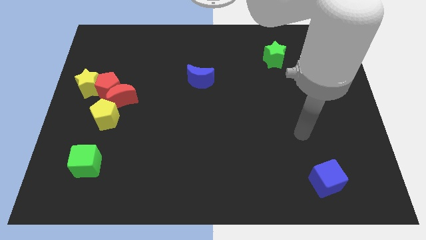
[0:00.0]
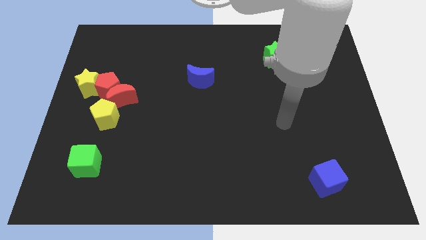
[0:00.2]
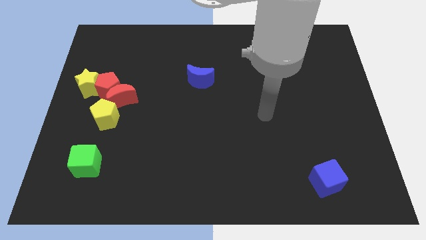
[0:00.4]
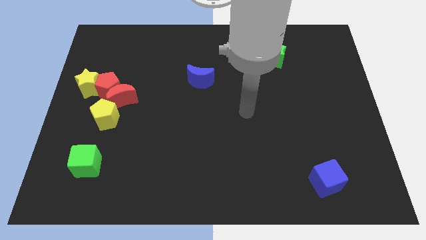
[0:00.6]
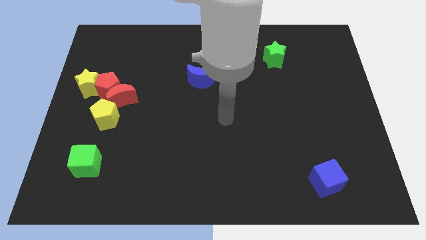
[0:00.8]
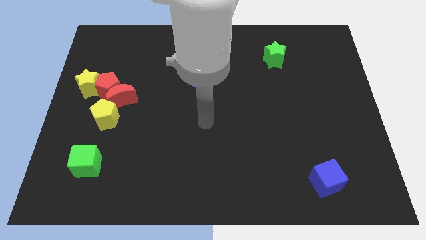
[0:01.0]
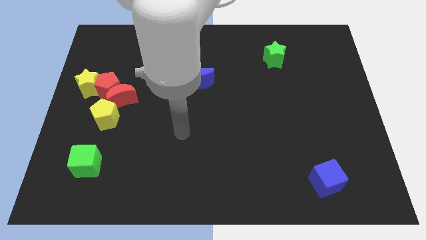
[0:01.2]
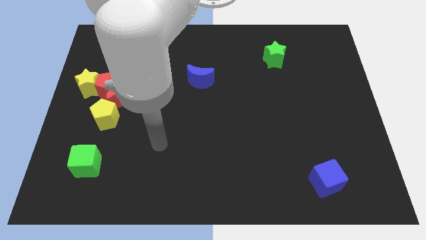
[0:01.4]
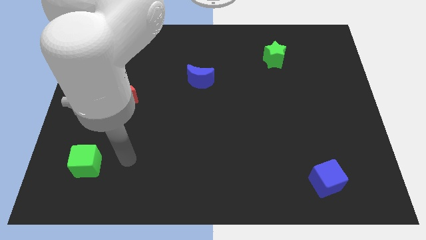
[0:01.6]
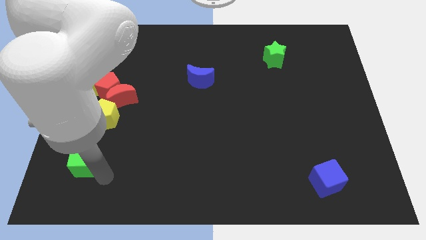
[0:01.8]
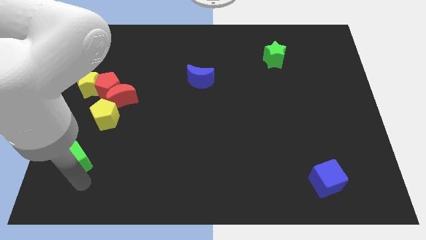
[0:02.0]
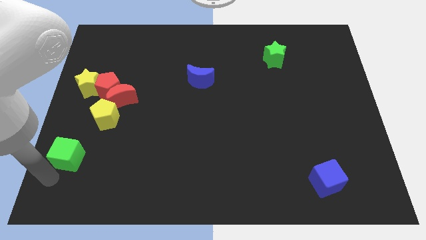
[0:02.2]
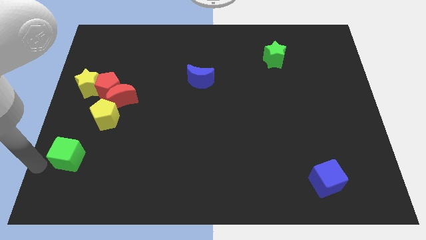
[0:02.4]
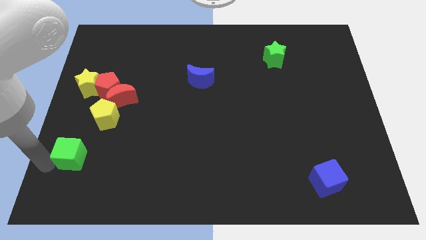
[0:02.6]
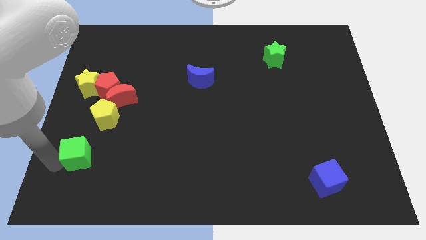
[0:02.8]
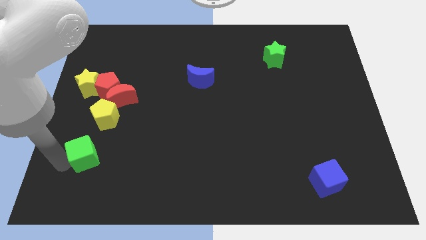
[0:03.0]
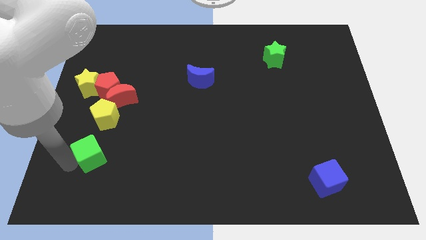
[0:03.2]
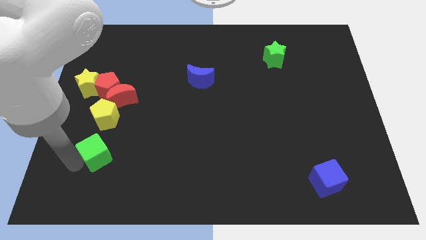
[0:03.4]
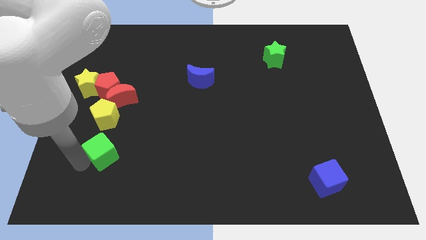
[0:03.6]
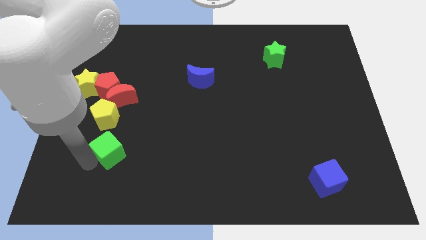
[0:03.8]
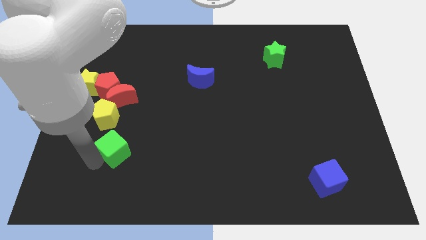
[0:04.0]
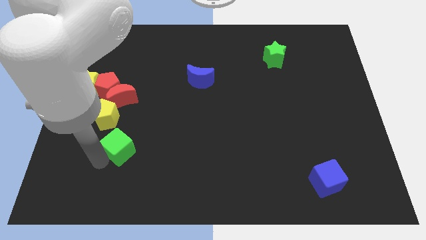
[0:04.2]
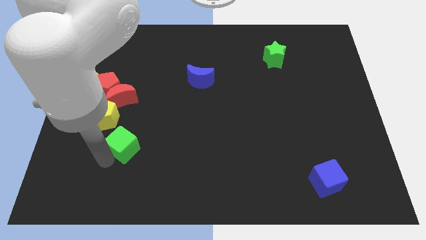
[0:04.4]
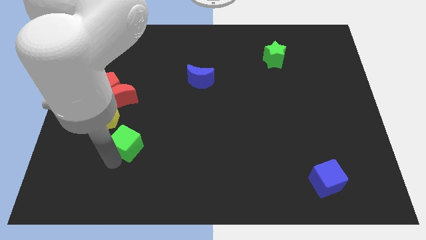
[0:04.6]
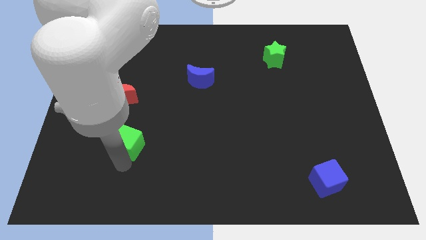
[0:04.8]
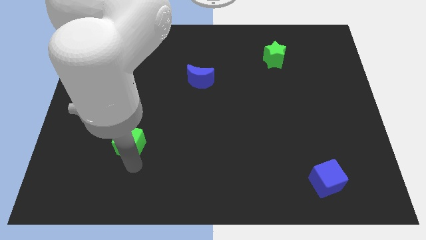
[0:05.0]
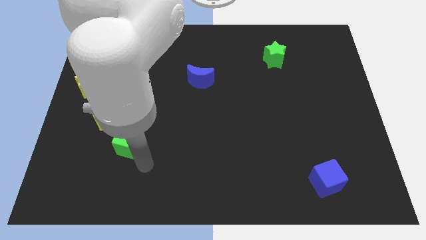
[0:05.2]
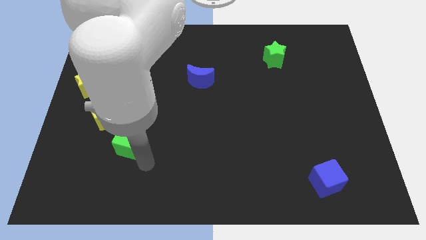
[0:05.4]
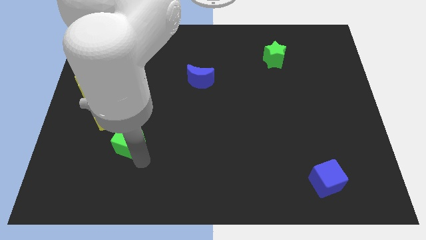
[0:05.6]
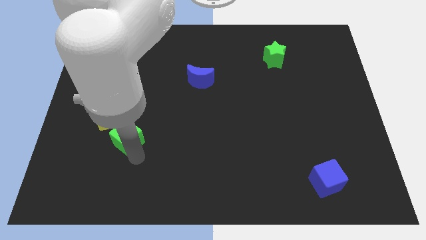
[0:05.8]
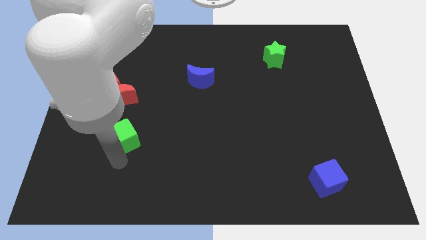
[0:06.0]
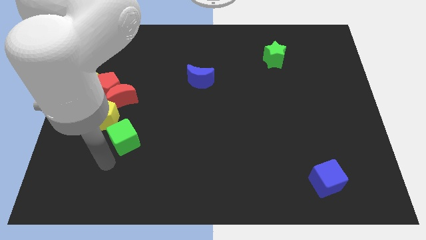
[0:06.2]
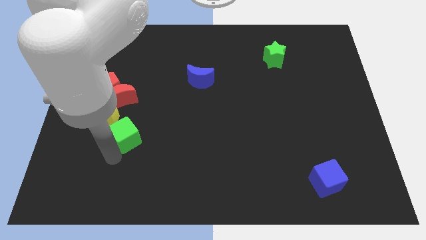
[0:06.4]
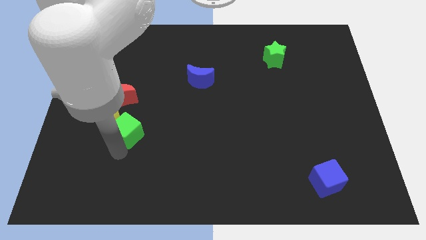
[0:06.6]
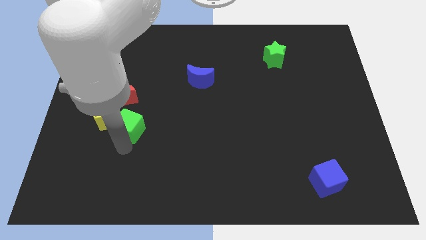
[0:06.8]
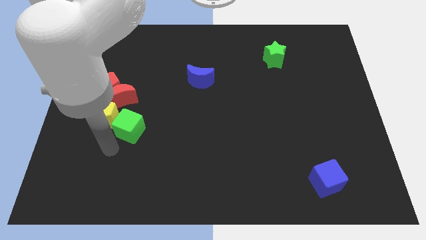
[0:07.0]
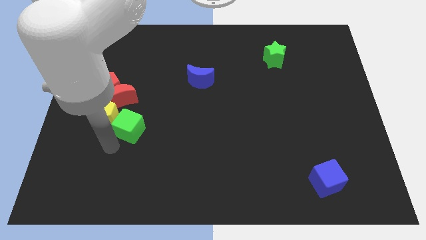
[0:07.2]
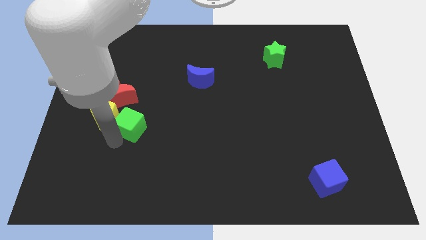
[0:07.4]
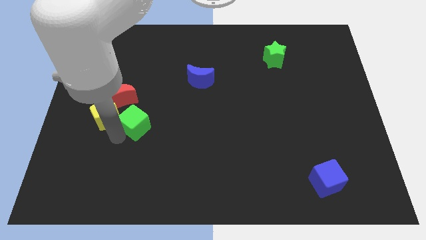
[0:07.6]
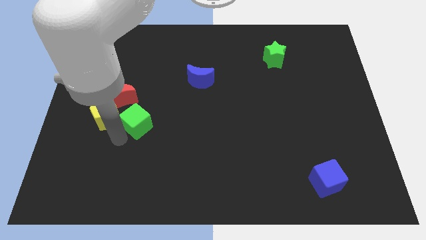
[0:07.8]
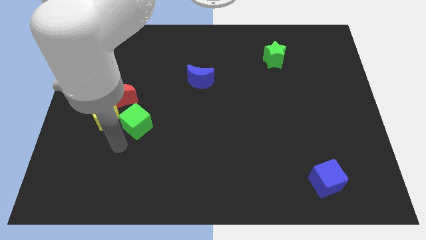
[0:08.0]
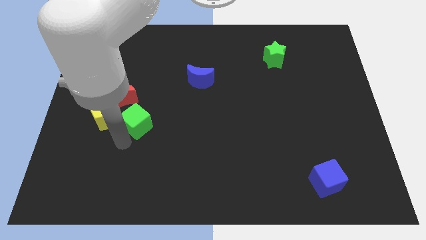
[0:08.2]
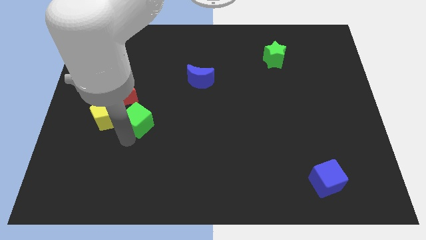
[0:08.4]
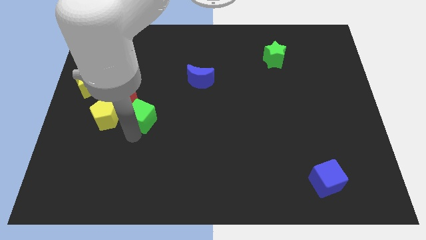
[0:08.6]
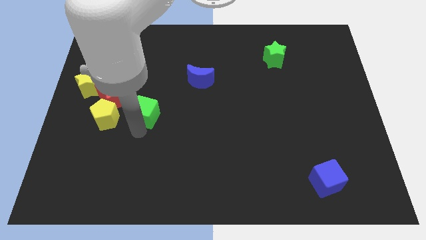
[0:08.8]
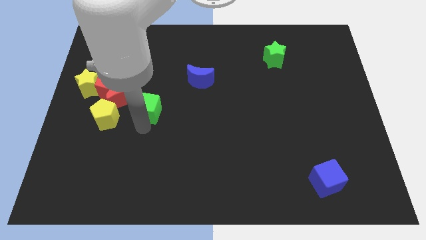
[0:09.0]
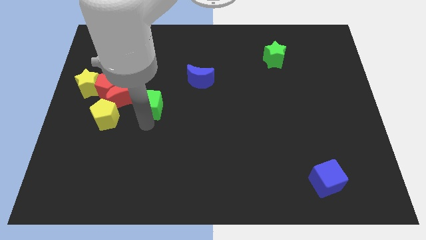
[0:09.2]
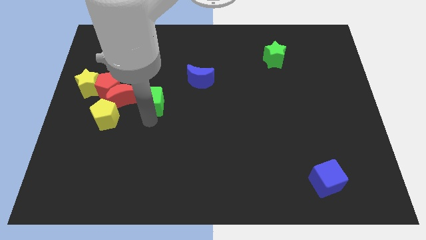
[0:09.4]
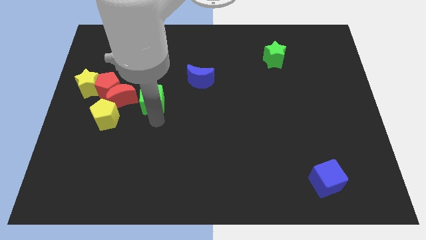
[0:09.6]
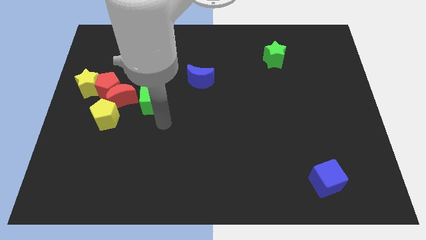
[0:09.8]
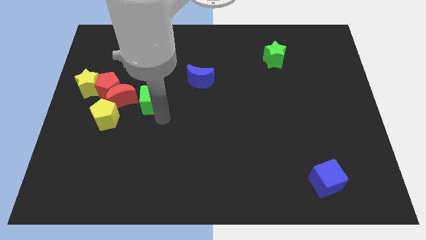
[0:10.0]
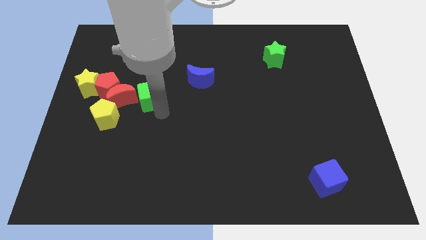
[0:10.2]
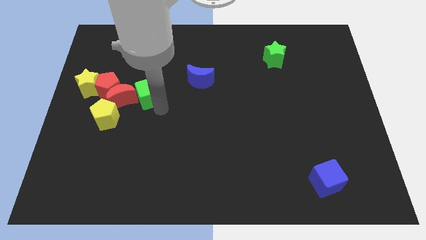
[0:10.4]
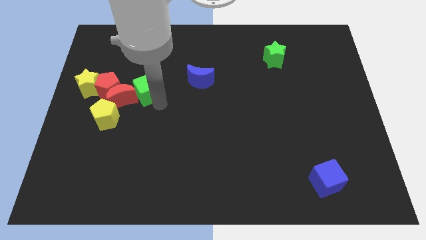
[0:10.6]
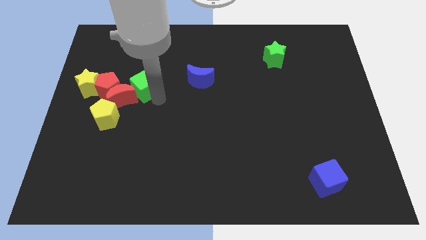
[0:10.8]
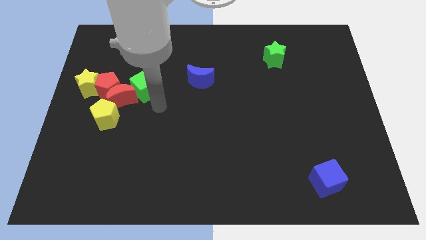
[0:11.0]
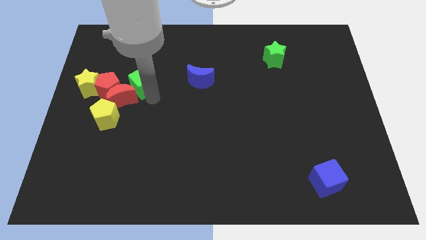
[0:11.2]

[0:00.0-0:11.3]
move the green cube to the top right side of the red pentagon

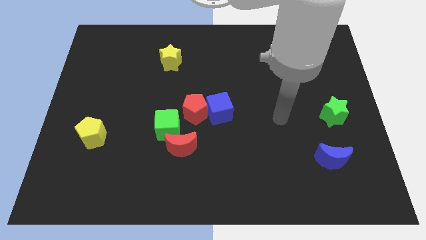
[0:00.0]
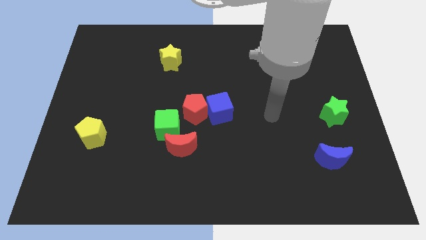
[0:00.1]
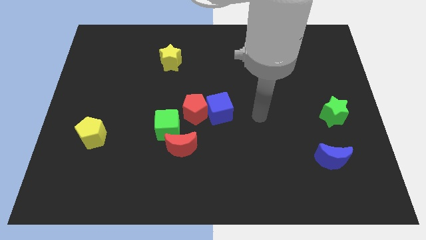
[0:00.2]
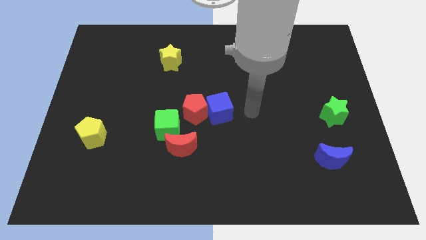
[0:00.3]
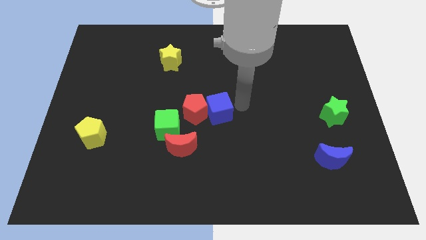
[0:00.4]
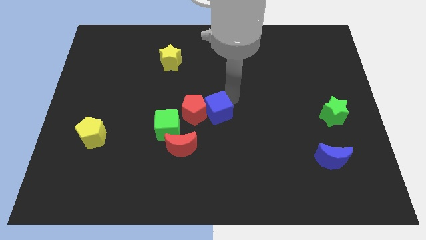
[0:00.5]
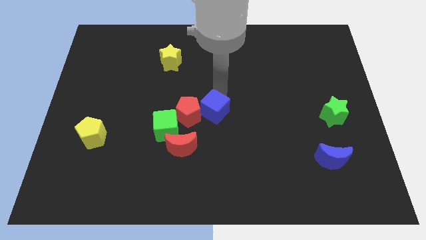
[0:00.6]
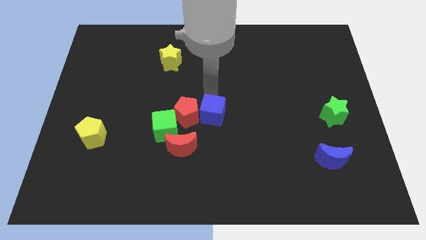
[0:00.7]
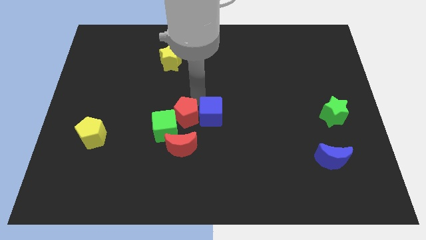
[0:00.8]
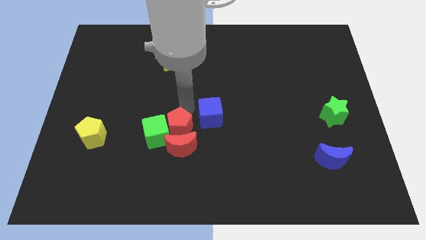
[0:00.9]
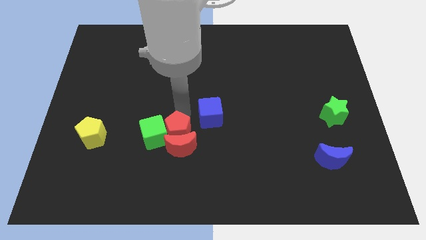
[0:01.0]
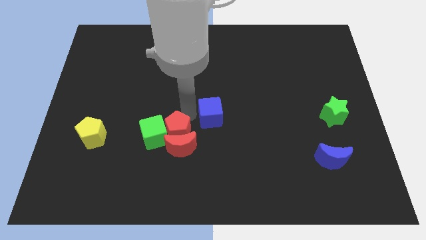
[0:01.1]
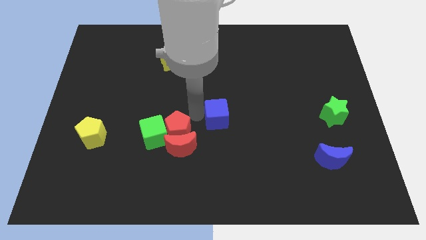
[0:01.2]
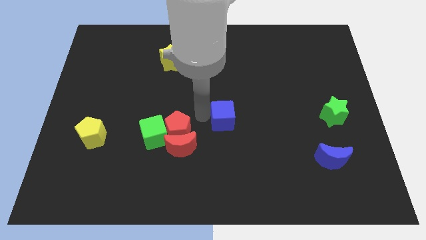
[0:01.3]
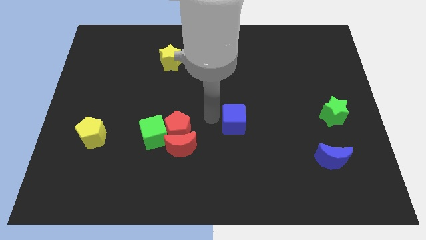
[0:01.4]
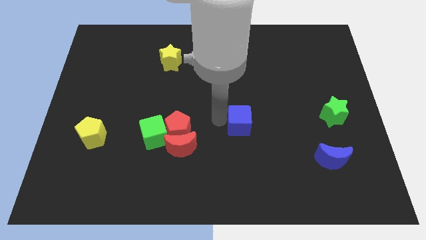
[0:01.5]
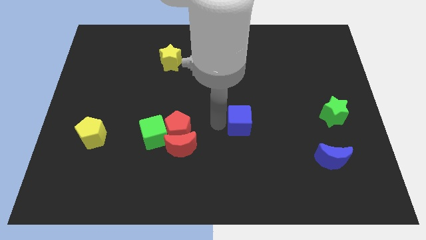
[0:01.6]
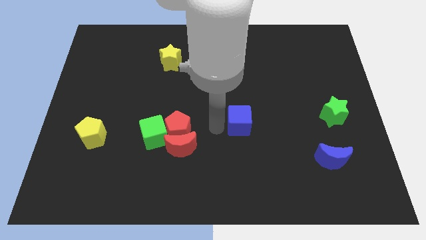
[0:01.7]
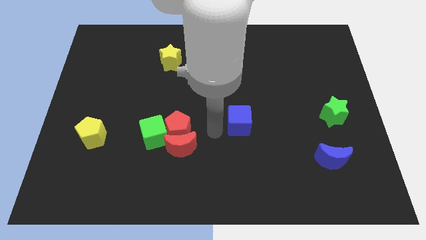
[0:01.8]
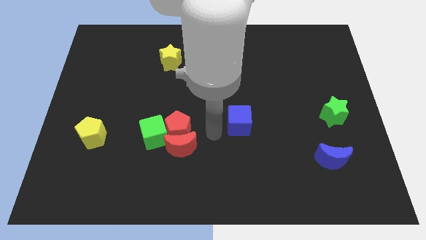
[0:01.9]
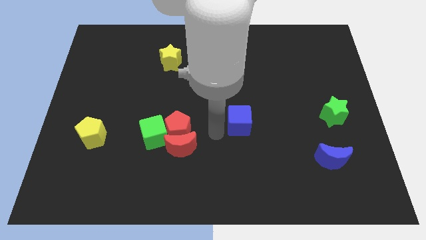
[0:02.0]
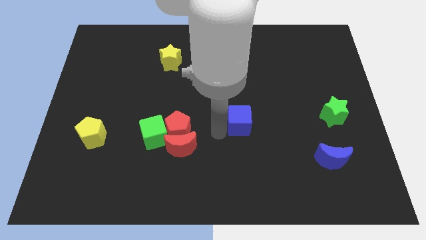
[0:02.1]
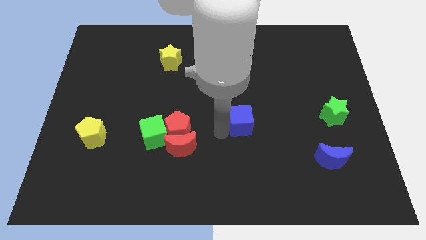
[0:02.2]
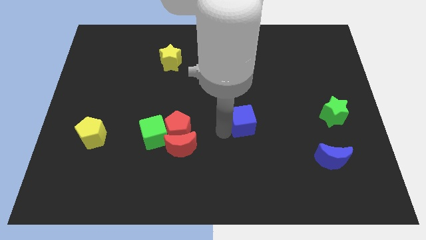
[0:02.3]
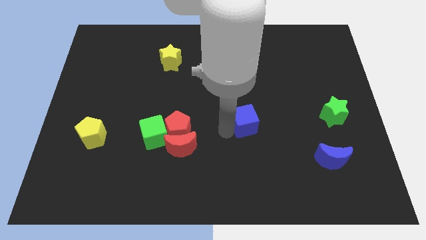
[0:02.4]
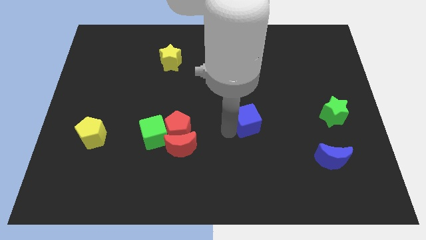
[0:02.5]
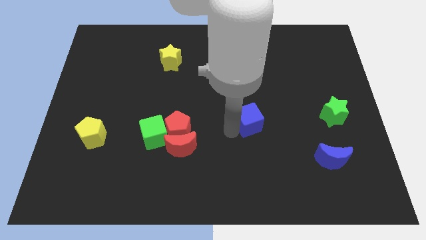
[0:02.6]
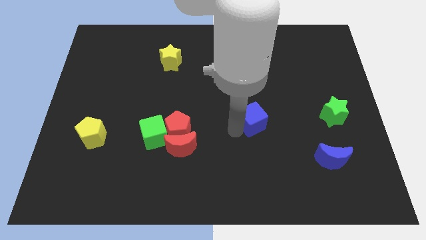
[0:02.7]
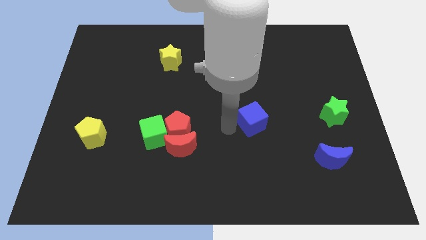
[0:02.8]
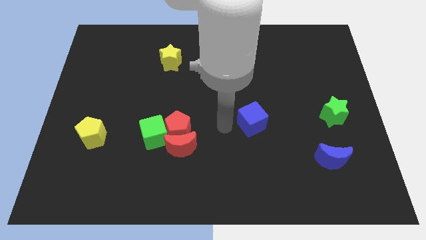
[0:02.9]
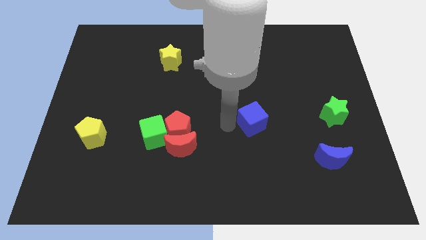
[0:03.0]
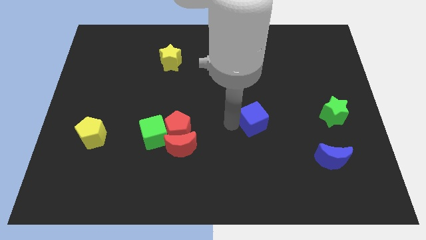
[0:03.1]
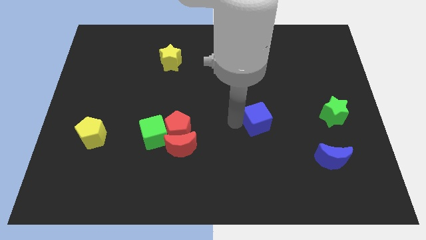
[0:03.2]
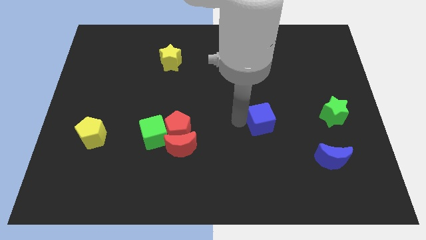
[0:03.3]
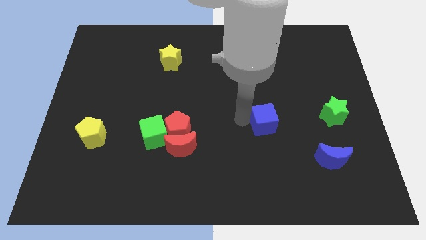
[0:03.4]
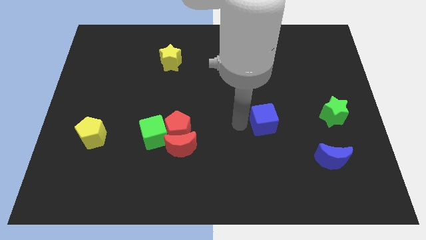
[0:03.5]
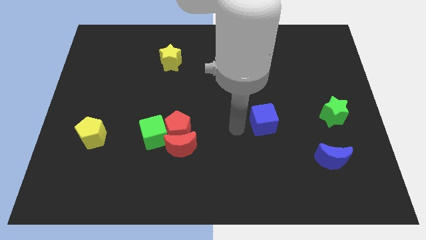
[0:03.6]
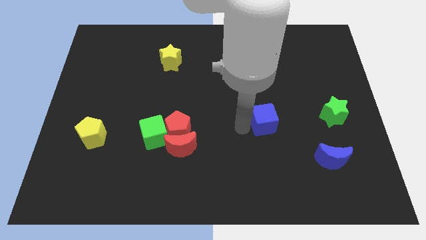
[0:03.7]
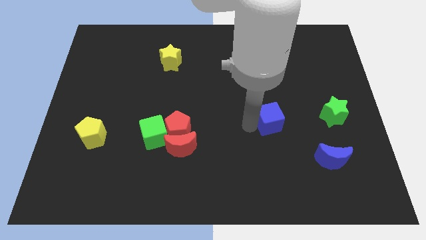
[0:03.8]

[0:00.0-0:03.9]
push the blue cube just left of the green star
